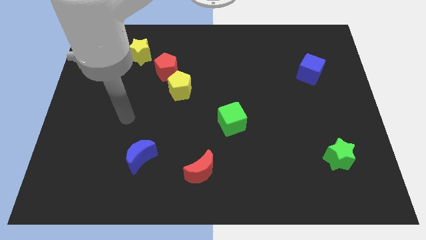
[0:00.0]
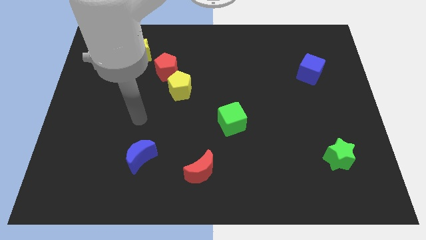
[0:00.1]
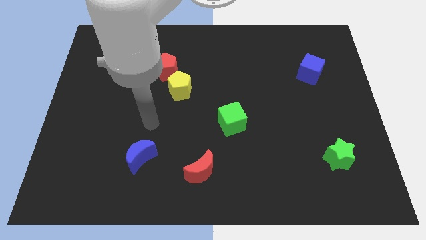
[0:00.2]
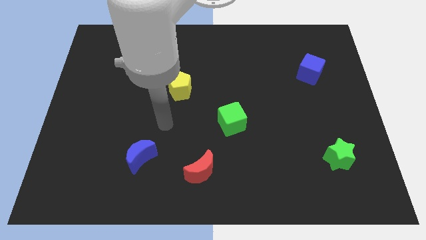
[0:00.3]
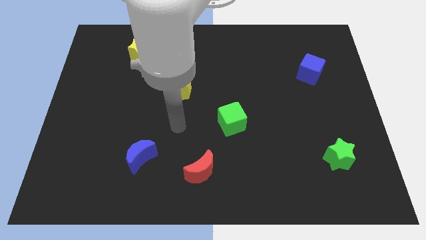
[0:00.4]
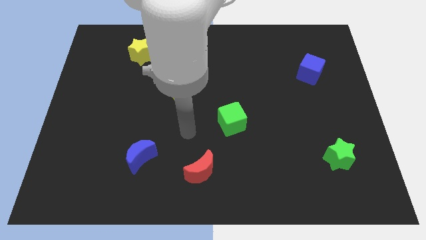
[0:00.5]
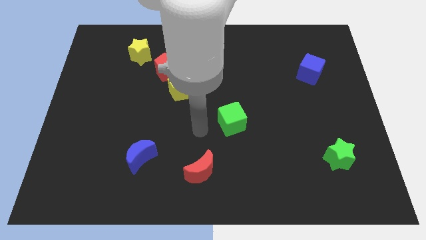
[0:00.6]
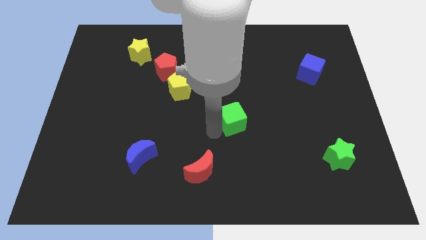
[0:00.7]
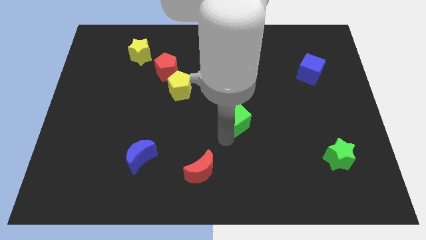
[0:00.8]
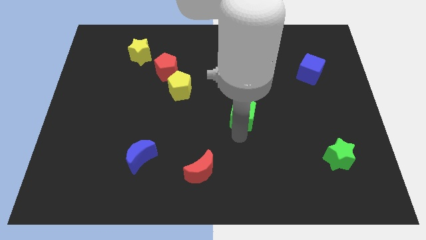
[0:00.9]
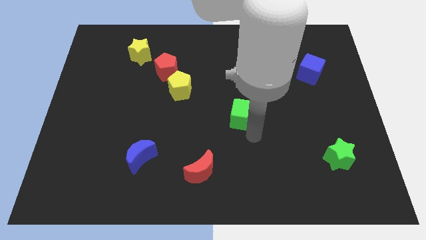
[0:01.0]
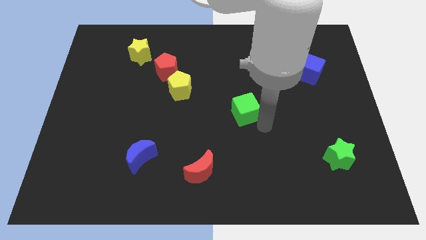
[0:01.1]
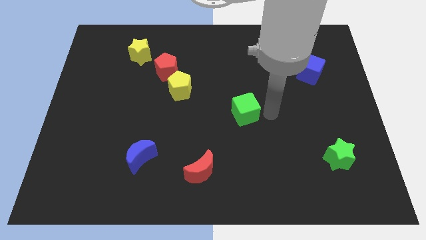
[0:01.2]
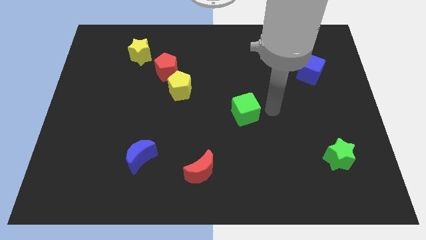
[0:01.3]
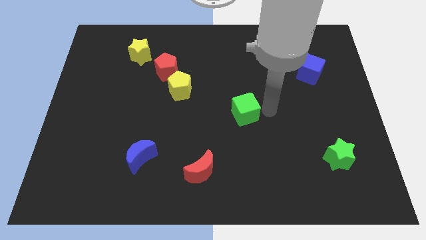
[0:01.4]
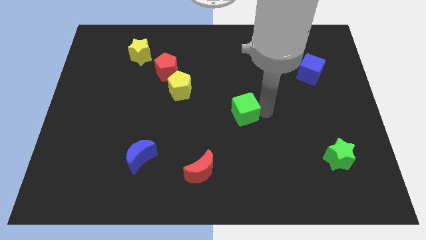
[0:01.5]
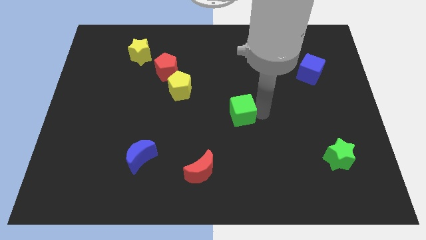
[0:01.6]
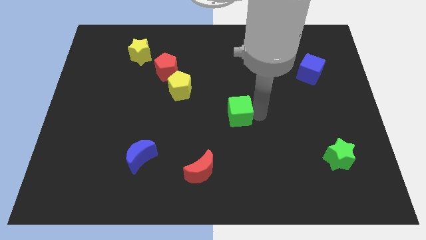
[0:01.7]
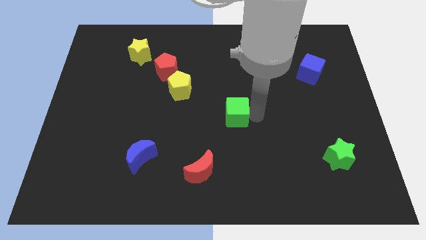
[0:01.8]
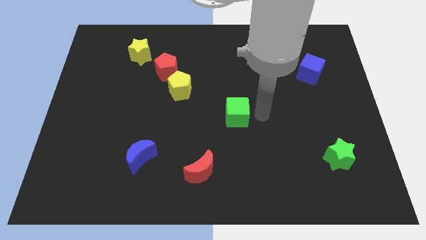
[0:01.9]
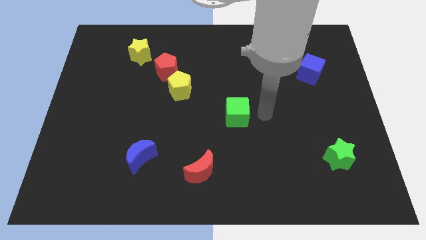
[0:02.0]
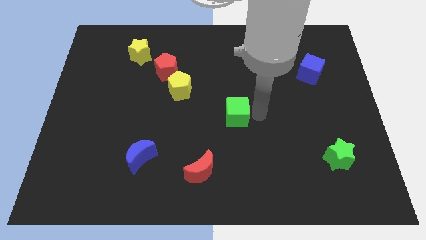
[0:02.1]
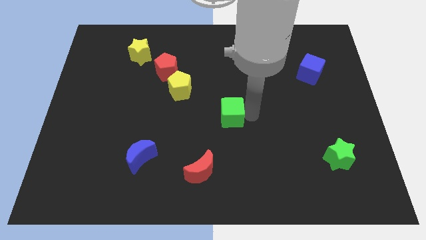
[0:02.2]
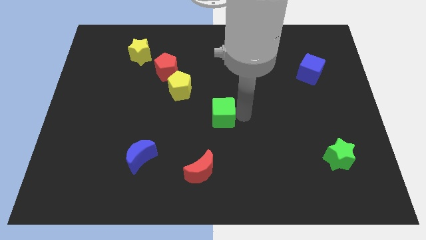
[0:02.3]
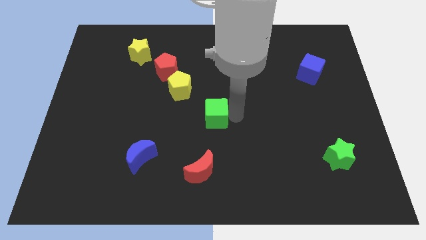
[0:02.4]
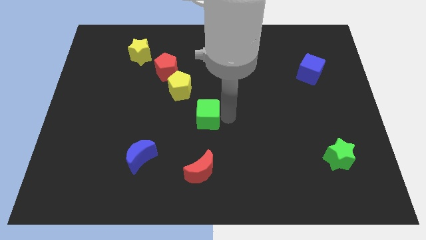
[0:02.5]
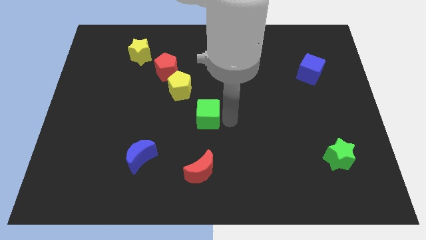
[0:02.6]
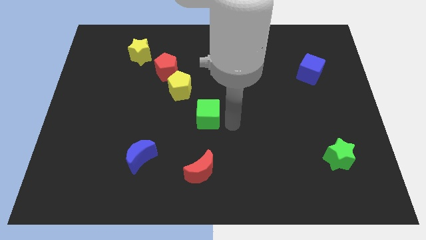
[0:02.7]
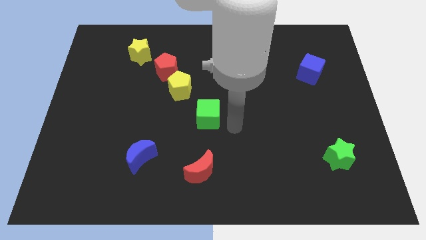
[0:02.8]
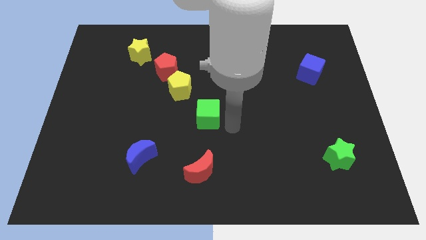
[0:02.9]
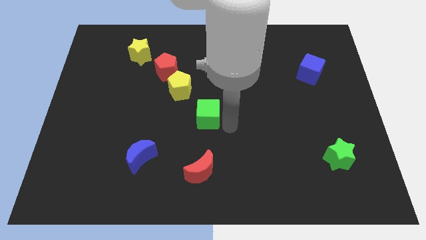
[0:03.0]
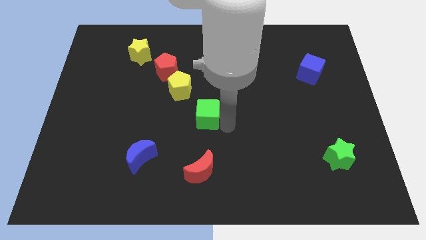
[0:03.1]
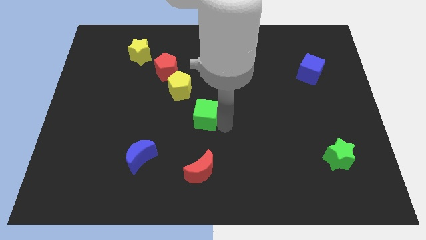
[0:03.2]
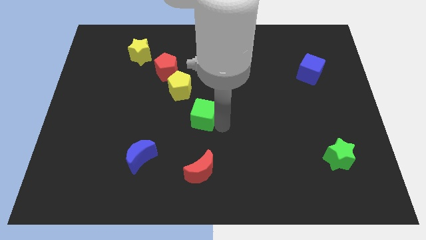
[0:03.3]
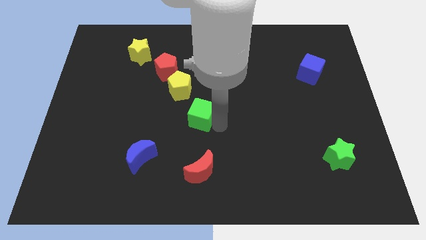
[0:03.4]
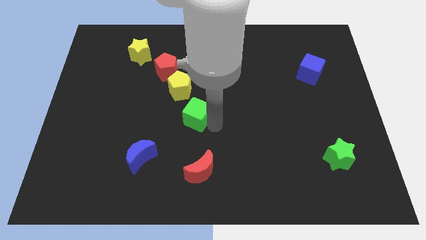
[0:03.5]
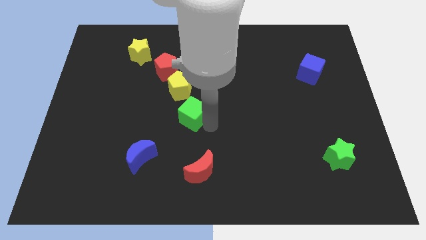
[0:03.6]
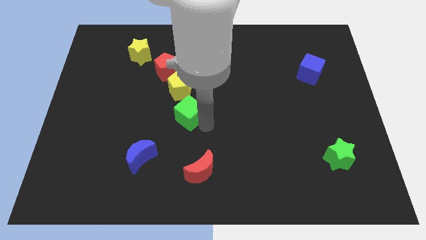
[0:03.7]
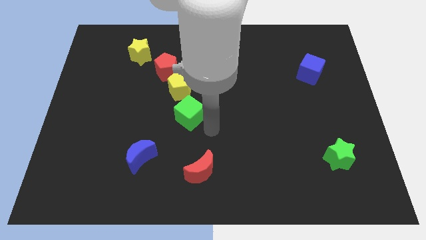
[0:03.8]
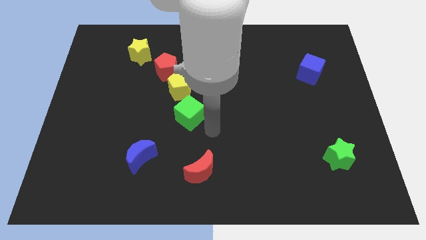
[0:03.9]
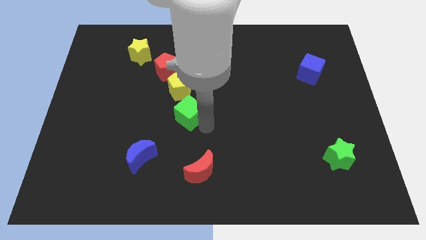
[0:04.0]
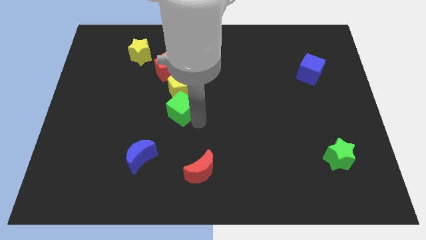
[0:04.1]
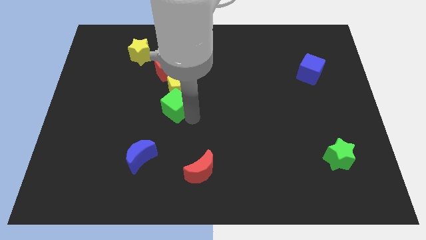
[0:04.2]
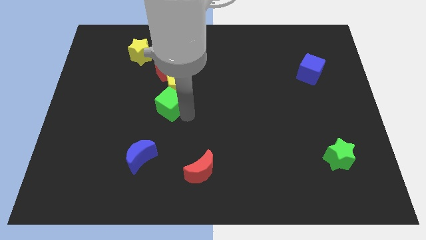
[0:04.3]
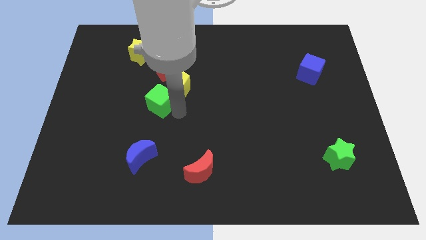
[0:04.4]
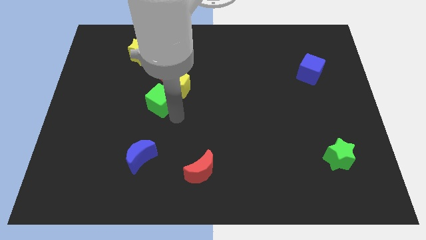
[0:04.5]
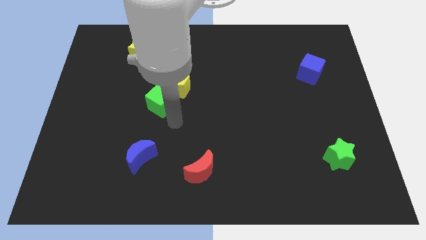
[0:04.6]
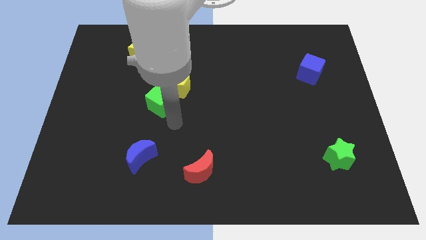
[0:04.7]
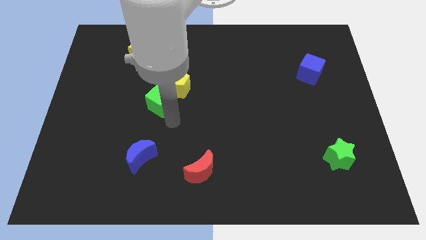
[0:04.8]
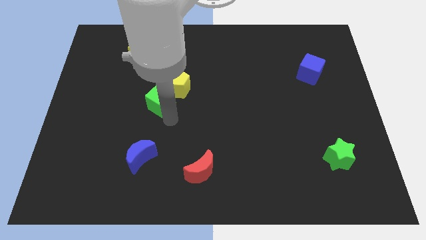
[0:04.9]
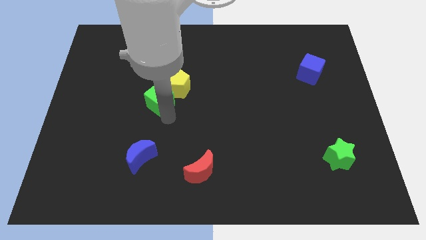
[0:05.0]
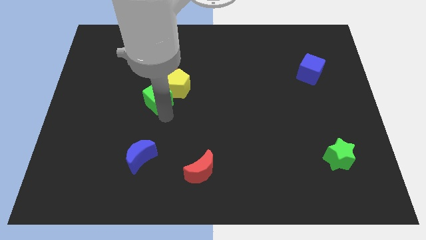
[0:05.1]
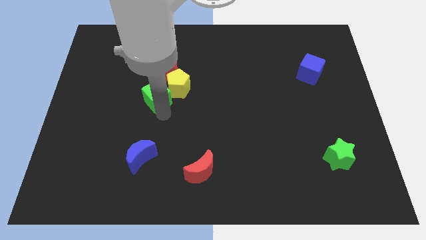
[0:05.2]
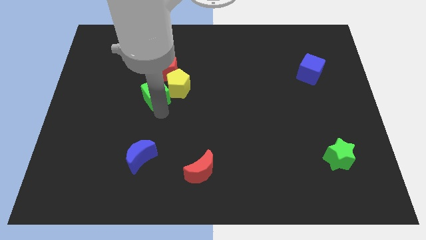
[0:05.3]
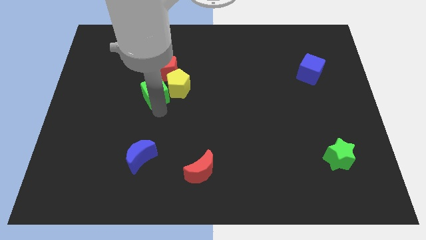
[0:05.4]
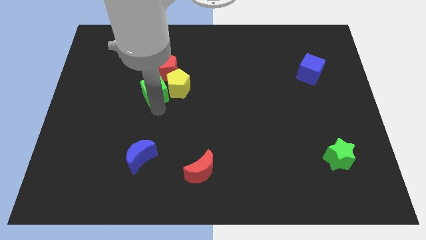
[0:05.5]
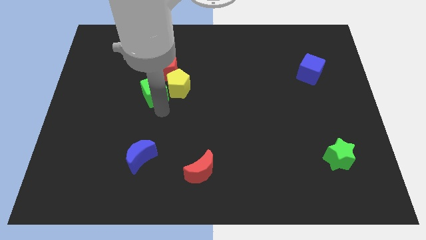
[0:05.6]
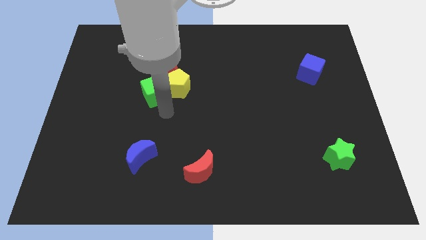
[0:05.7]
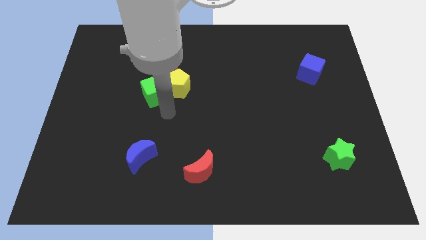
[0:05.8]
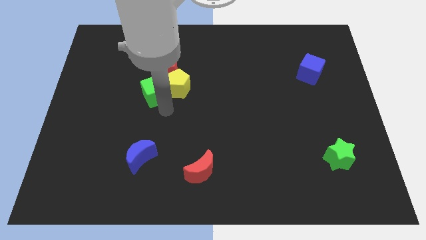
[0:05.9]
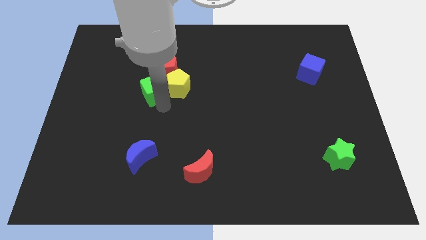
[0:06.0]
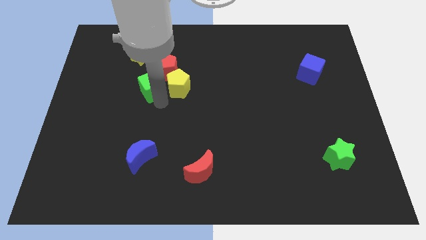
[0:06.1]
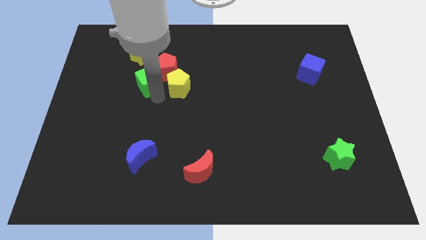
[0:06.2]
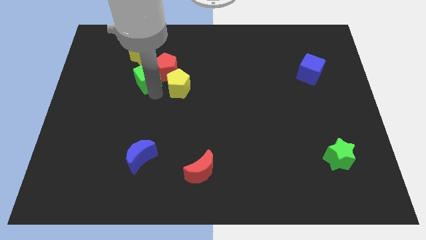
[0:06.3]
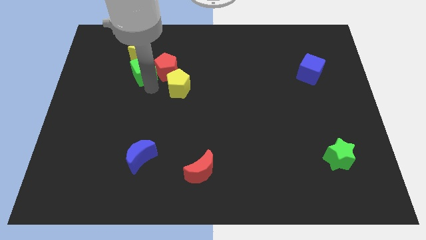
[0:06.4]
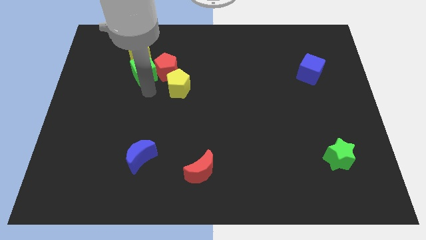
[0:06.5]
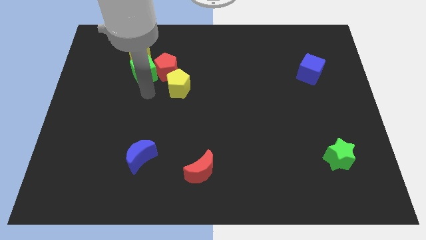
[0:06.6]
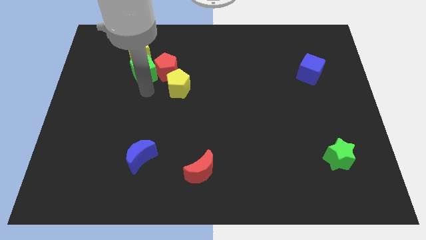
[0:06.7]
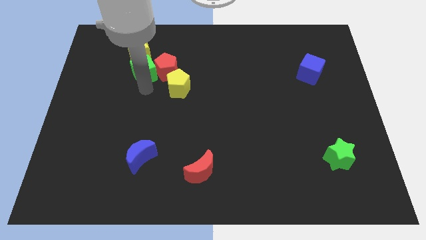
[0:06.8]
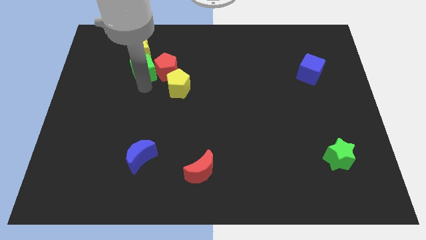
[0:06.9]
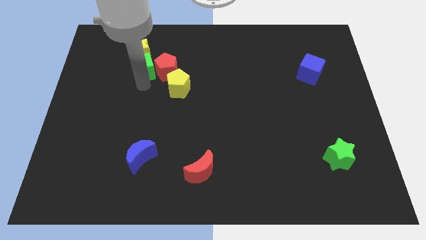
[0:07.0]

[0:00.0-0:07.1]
slide the green cube to the yellow star

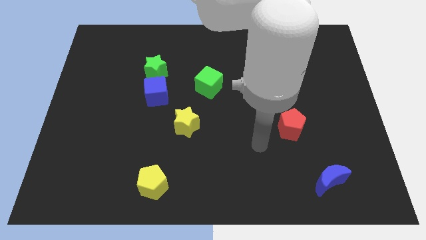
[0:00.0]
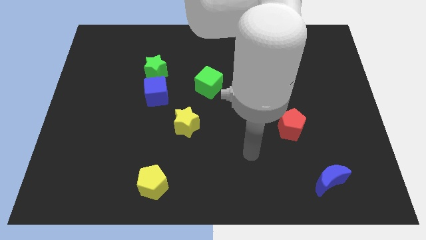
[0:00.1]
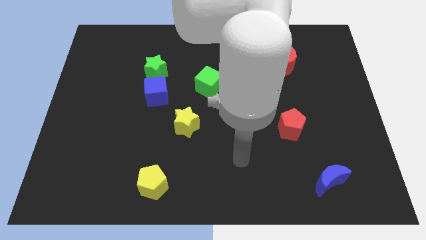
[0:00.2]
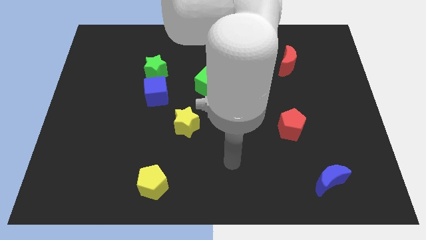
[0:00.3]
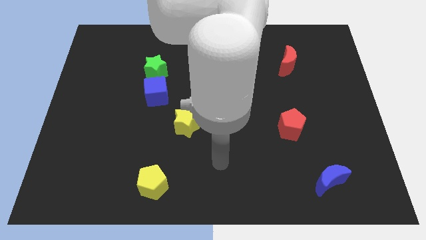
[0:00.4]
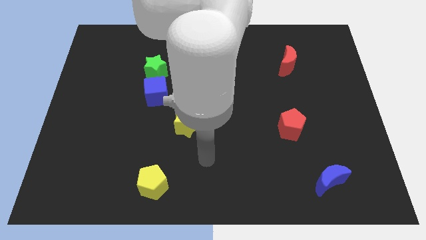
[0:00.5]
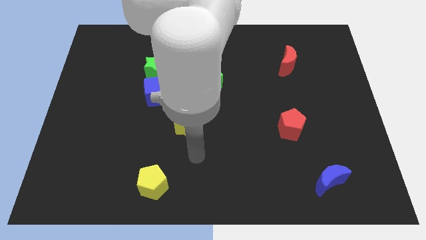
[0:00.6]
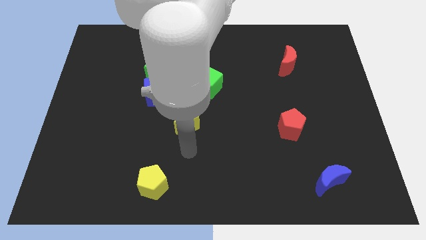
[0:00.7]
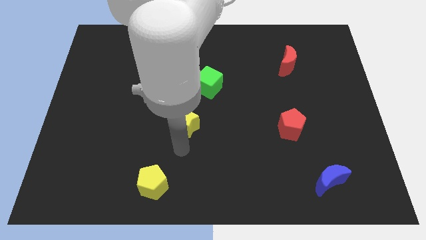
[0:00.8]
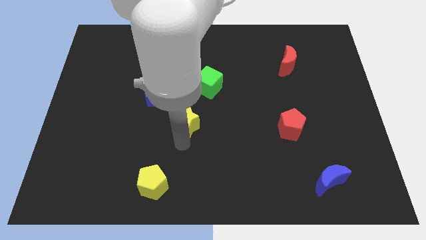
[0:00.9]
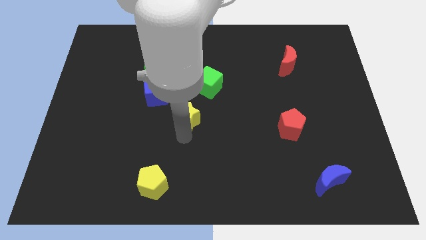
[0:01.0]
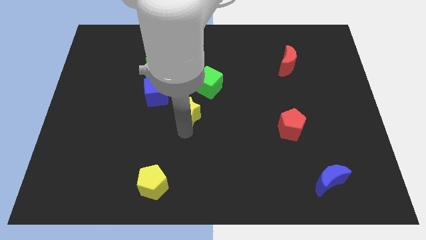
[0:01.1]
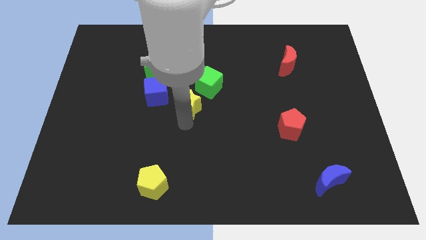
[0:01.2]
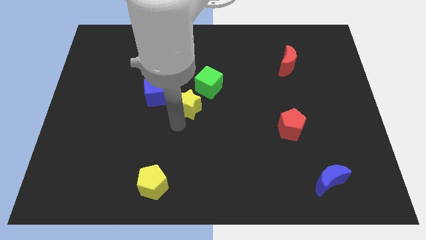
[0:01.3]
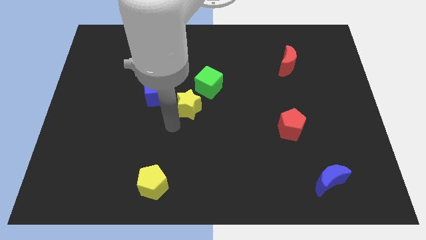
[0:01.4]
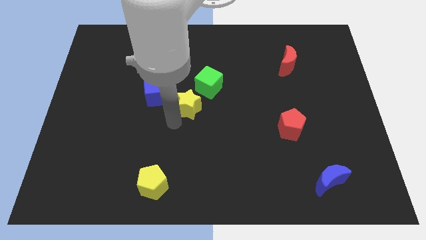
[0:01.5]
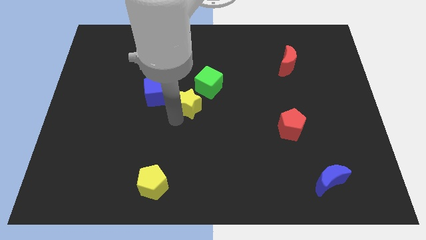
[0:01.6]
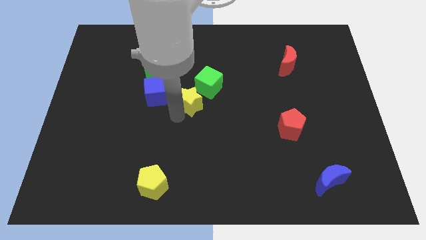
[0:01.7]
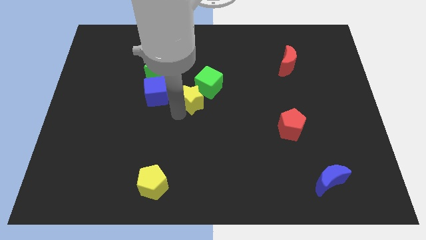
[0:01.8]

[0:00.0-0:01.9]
move the yellow star towards the green cube
